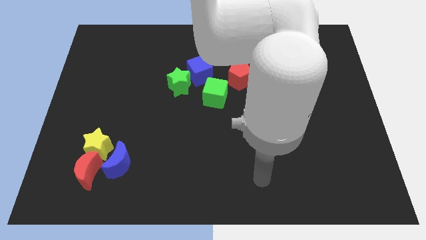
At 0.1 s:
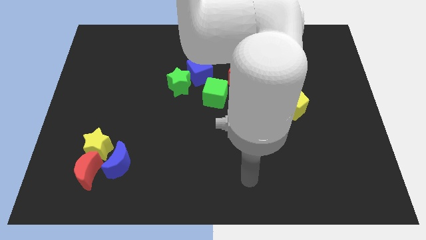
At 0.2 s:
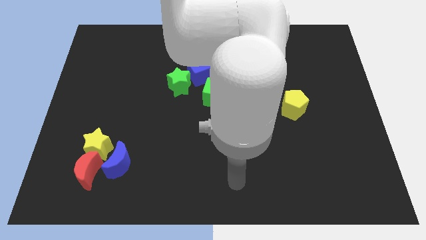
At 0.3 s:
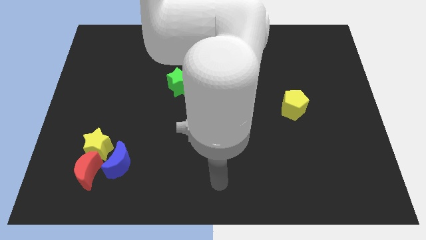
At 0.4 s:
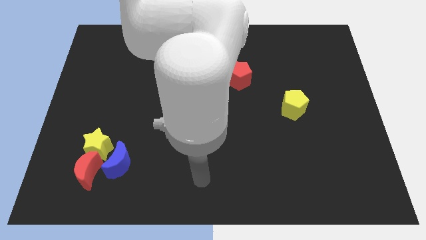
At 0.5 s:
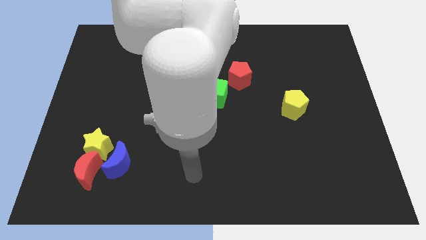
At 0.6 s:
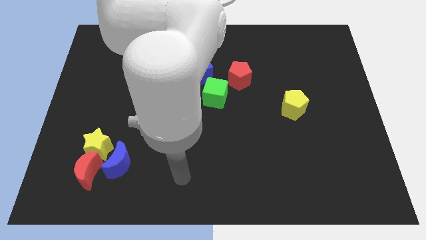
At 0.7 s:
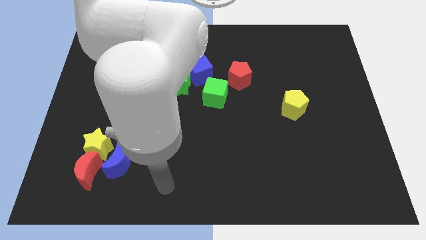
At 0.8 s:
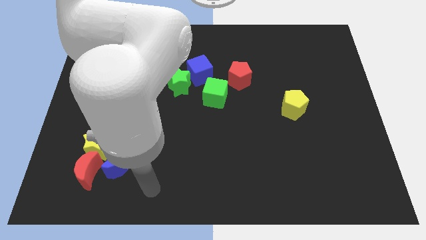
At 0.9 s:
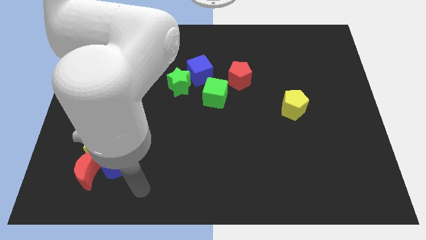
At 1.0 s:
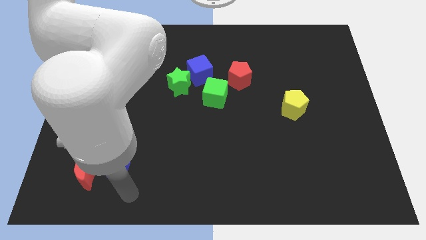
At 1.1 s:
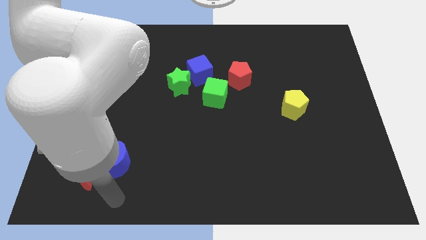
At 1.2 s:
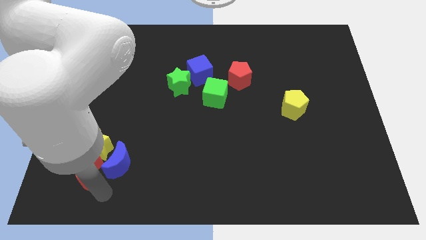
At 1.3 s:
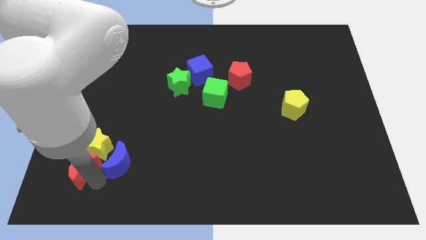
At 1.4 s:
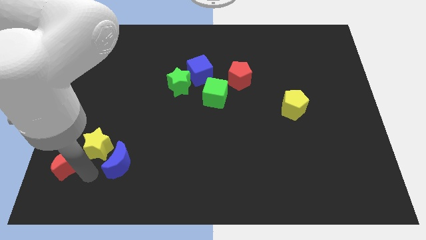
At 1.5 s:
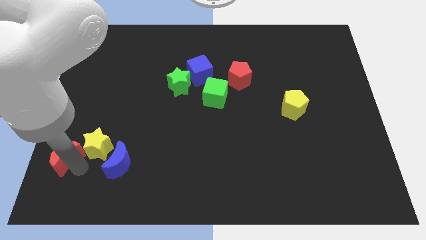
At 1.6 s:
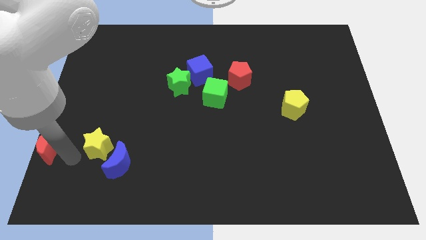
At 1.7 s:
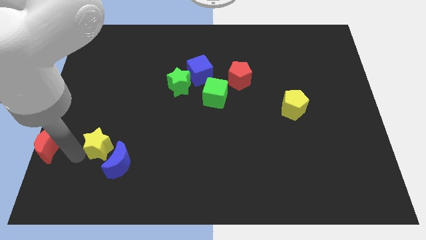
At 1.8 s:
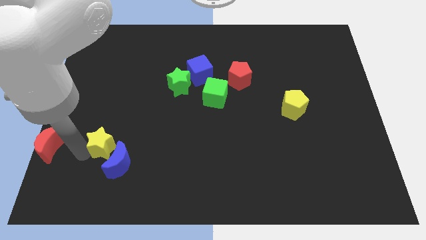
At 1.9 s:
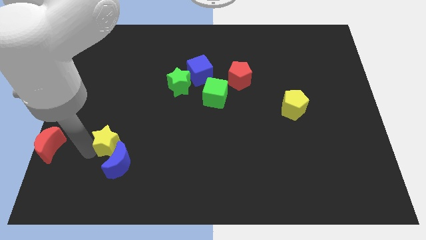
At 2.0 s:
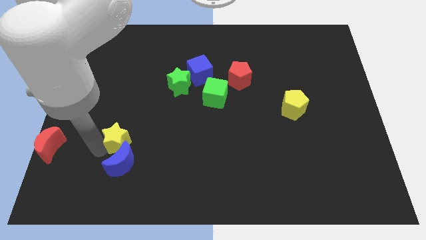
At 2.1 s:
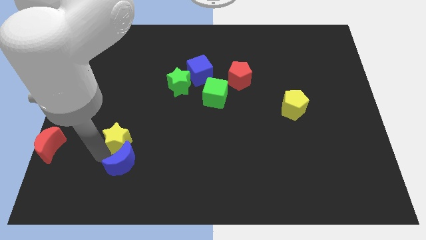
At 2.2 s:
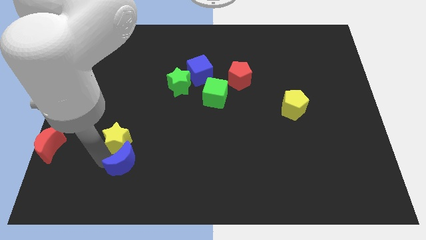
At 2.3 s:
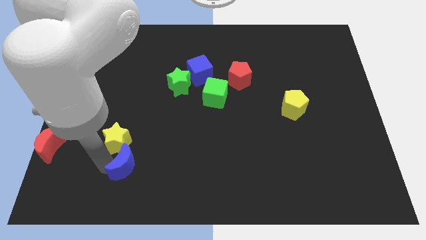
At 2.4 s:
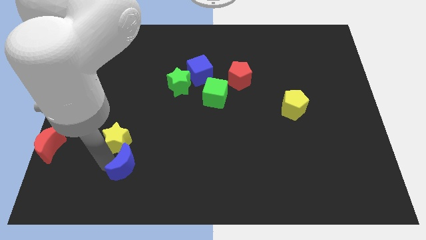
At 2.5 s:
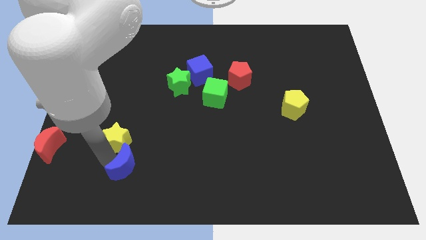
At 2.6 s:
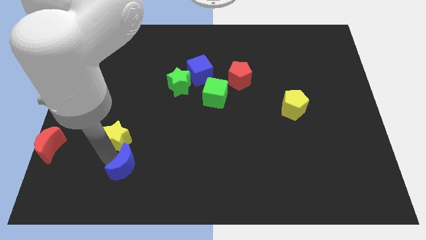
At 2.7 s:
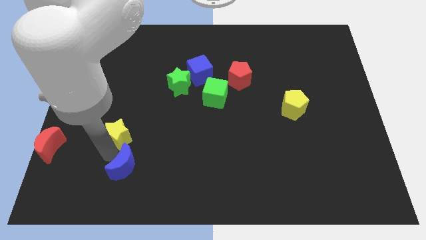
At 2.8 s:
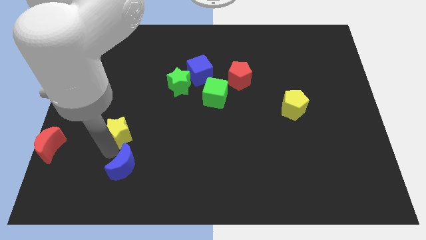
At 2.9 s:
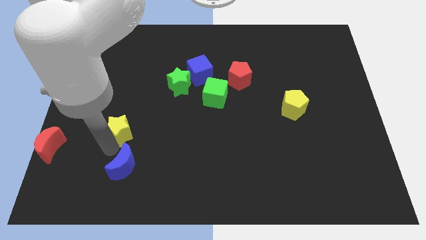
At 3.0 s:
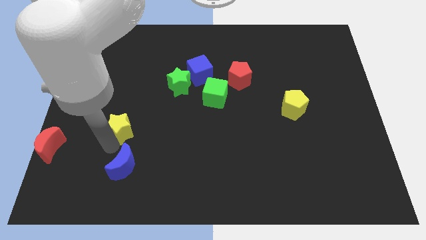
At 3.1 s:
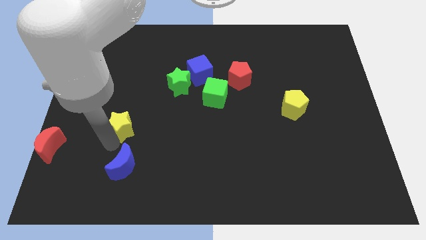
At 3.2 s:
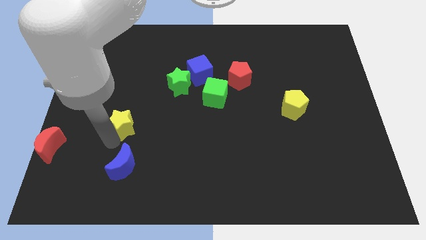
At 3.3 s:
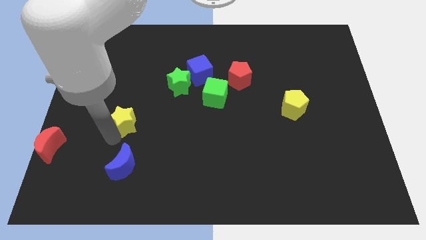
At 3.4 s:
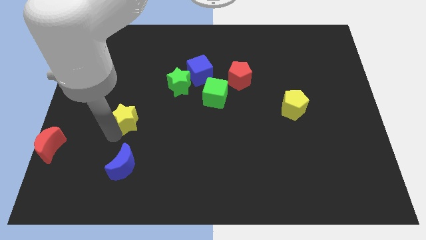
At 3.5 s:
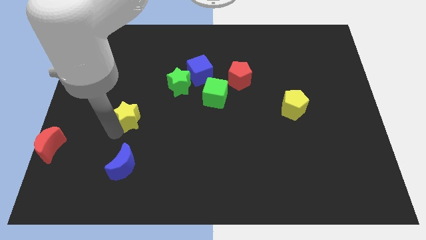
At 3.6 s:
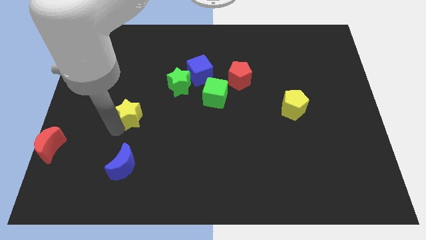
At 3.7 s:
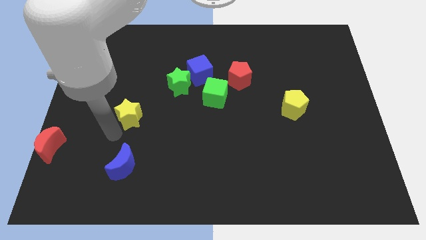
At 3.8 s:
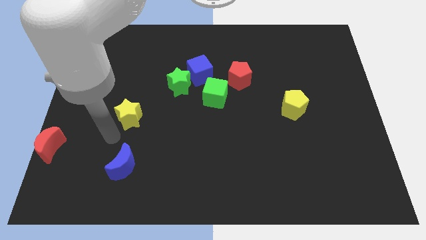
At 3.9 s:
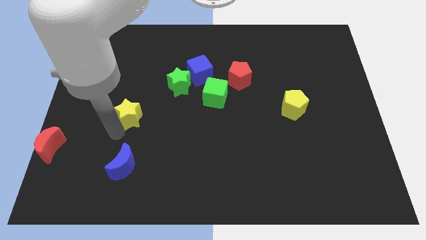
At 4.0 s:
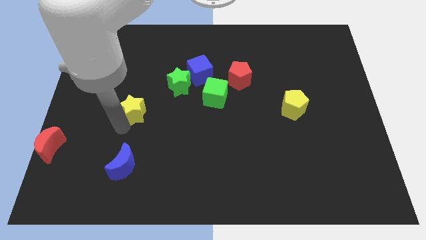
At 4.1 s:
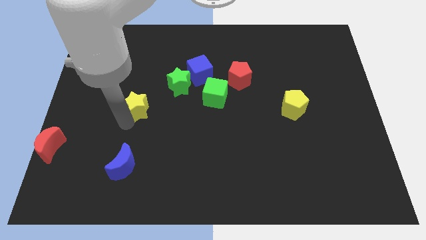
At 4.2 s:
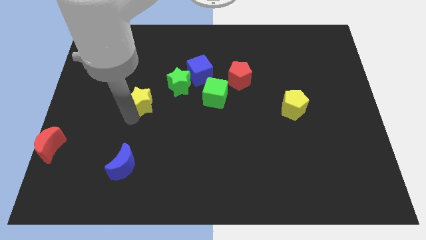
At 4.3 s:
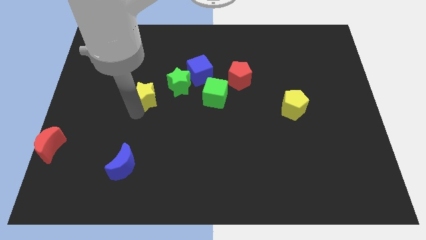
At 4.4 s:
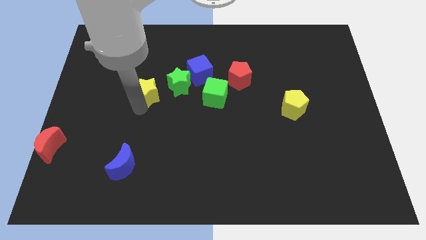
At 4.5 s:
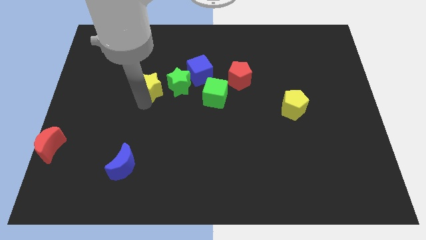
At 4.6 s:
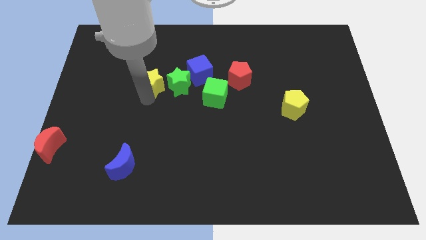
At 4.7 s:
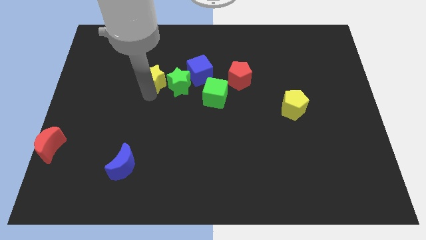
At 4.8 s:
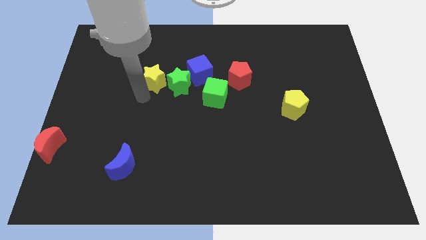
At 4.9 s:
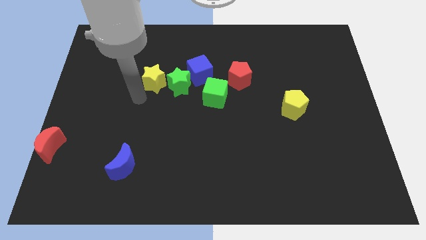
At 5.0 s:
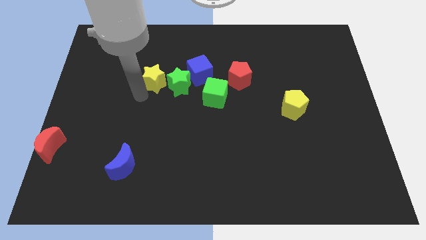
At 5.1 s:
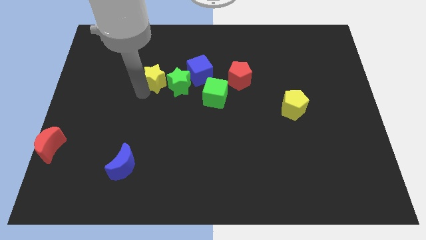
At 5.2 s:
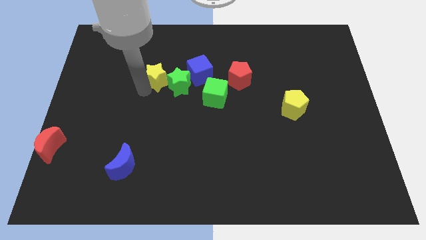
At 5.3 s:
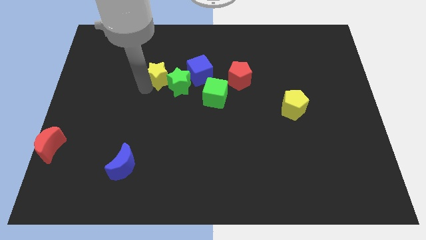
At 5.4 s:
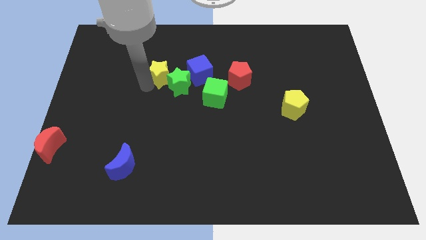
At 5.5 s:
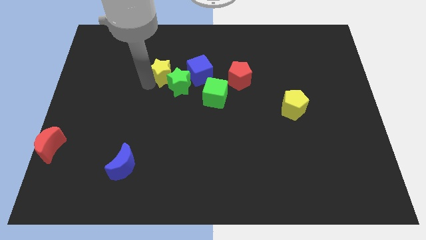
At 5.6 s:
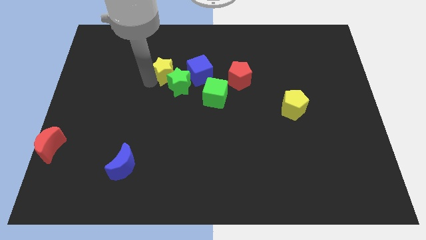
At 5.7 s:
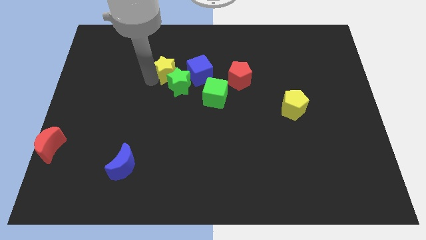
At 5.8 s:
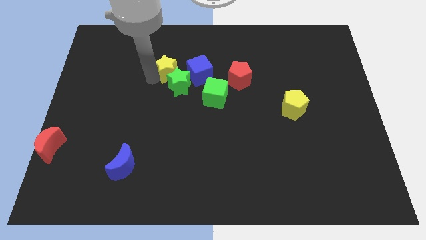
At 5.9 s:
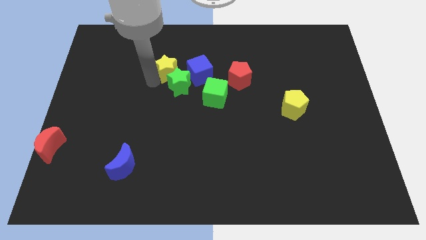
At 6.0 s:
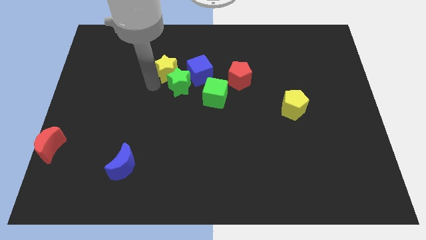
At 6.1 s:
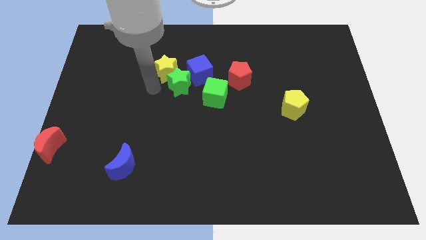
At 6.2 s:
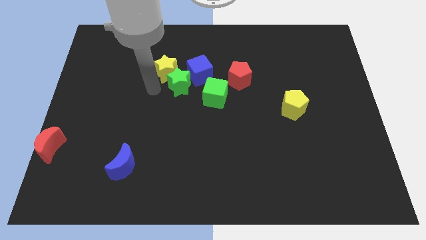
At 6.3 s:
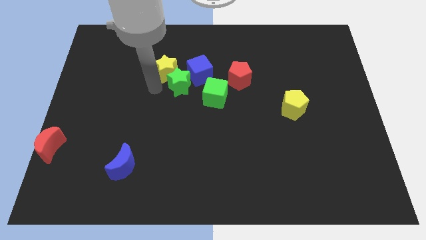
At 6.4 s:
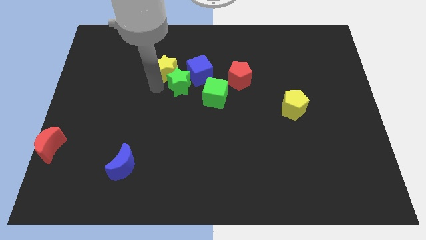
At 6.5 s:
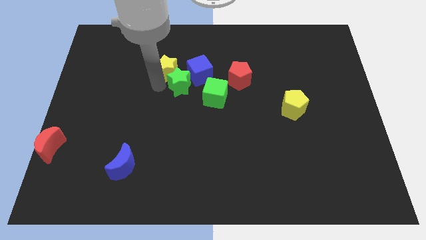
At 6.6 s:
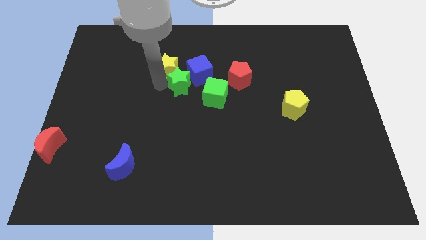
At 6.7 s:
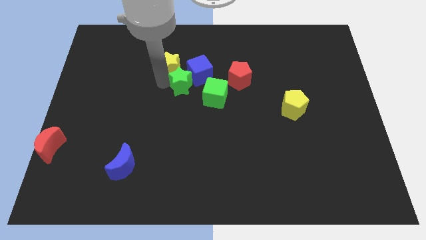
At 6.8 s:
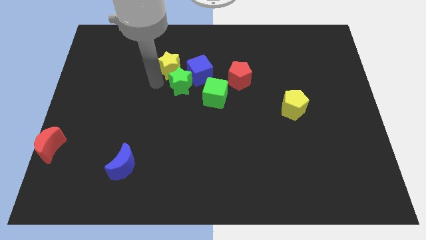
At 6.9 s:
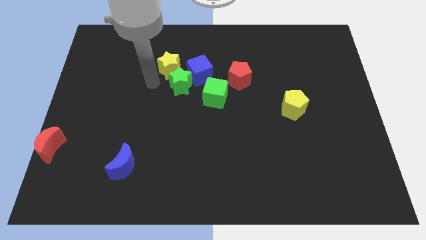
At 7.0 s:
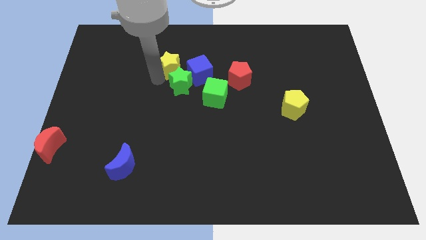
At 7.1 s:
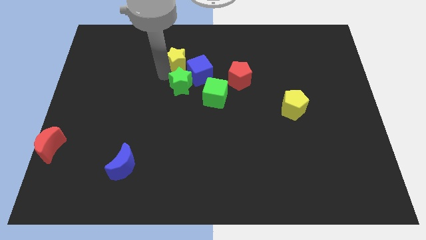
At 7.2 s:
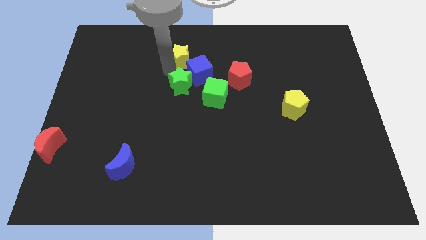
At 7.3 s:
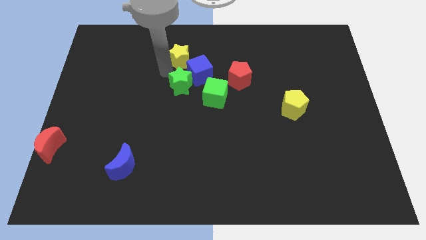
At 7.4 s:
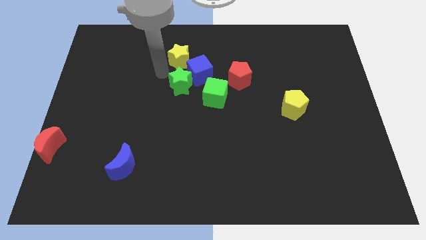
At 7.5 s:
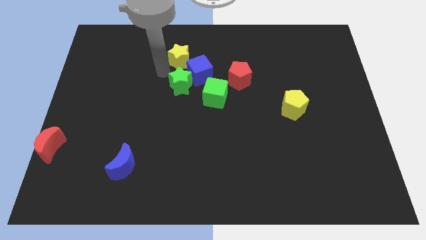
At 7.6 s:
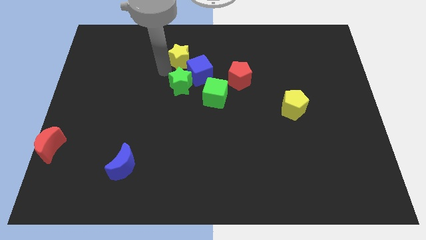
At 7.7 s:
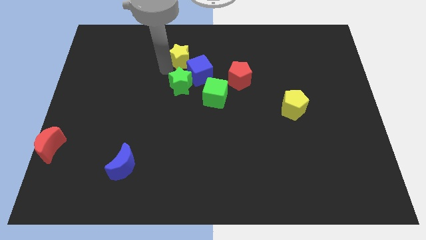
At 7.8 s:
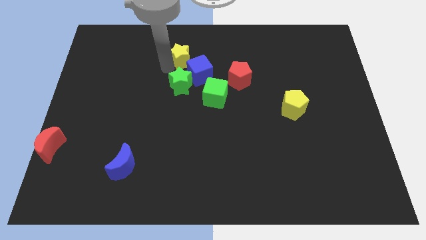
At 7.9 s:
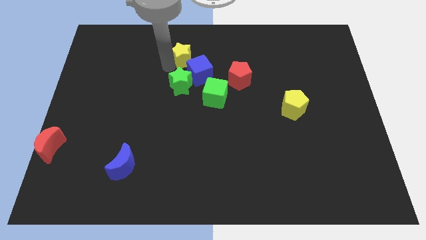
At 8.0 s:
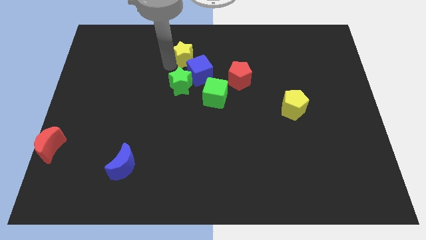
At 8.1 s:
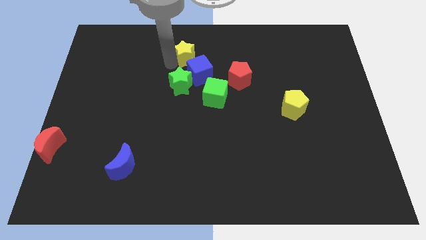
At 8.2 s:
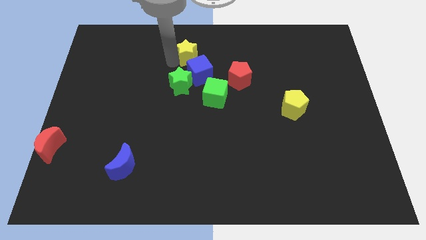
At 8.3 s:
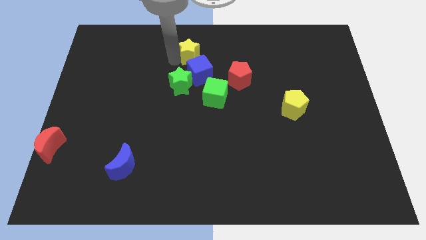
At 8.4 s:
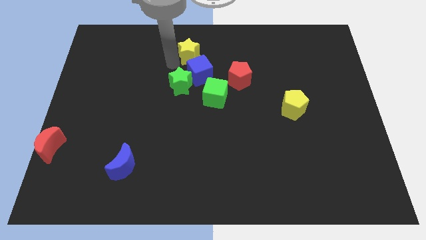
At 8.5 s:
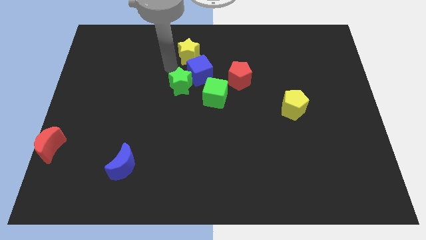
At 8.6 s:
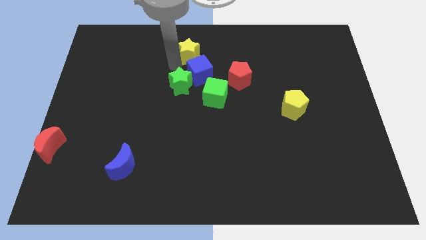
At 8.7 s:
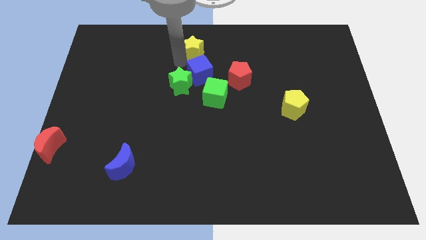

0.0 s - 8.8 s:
put the yellow star to the top side
